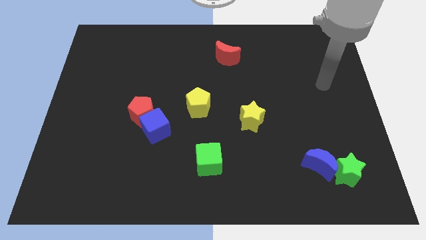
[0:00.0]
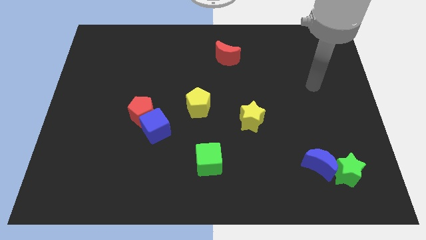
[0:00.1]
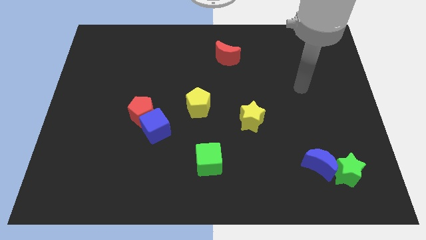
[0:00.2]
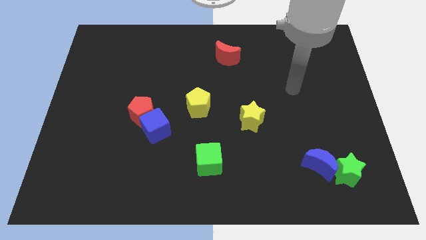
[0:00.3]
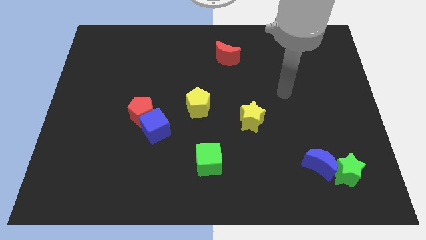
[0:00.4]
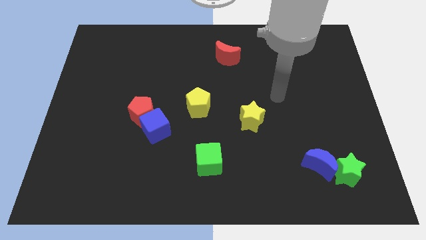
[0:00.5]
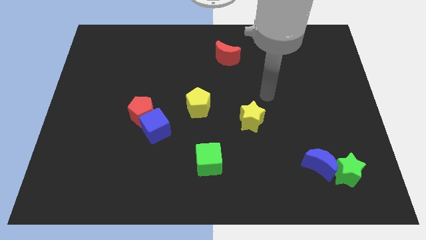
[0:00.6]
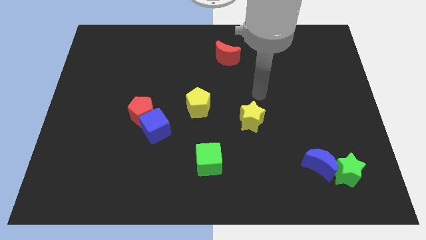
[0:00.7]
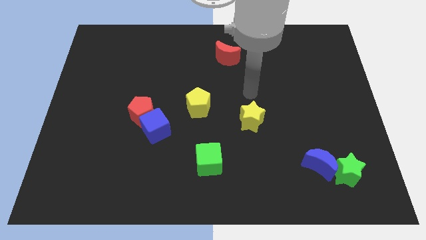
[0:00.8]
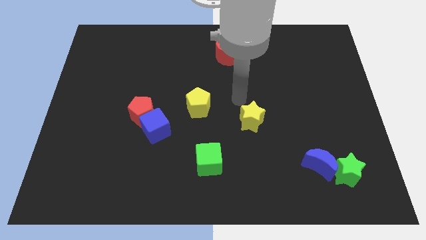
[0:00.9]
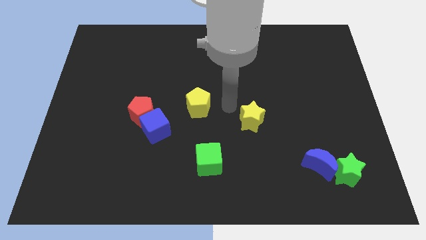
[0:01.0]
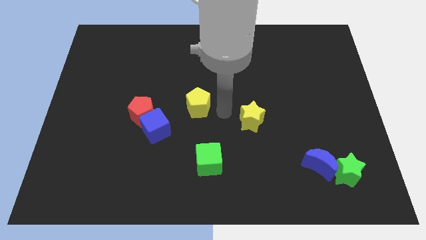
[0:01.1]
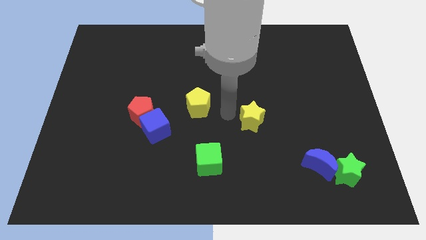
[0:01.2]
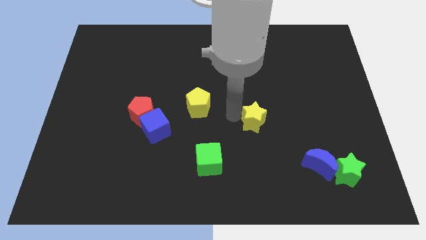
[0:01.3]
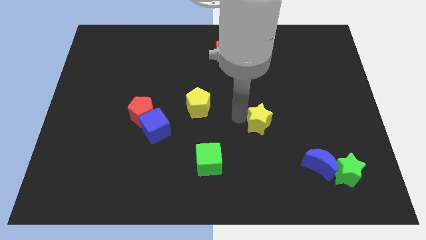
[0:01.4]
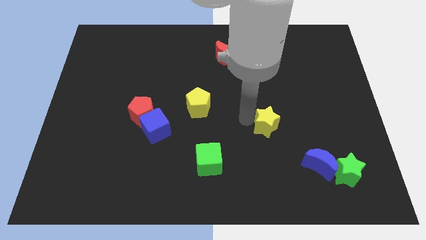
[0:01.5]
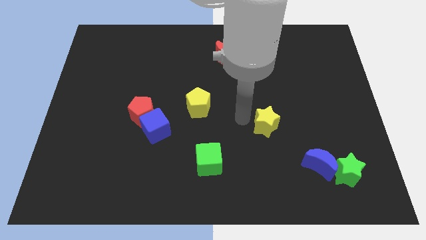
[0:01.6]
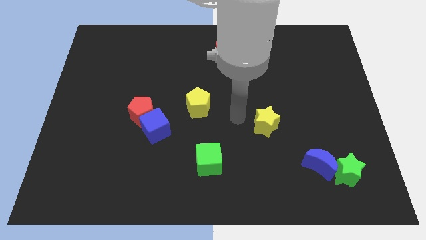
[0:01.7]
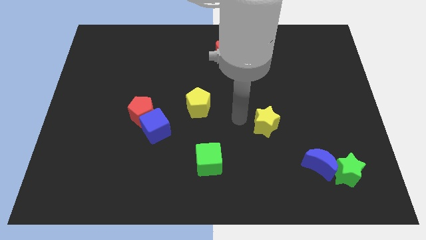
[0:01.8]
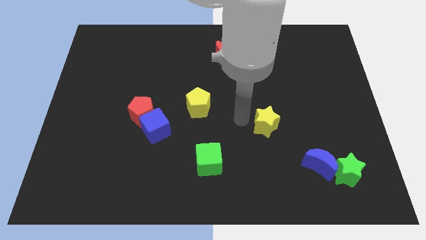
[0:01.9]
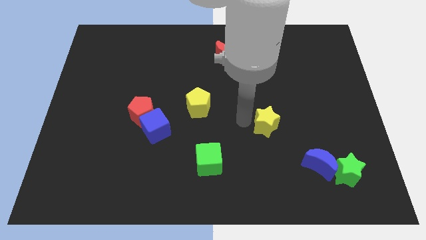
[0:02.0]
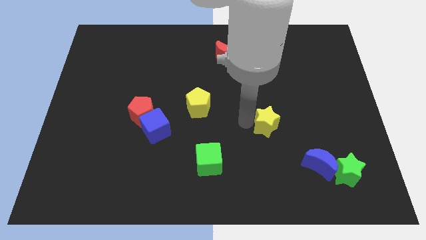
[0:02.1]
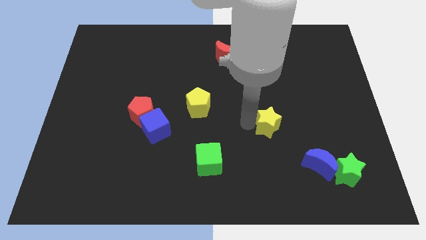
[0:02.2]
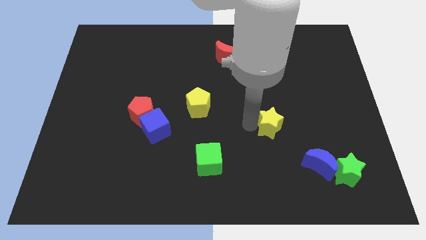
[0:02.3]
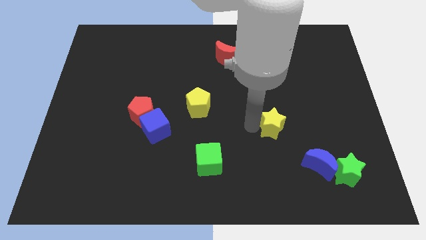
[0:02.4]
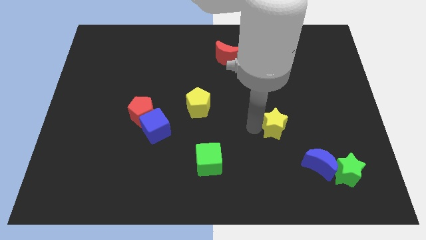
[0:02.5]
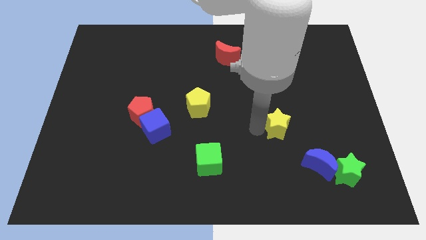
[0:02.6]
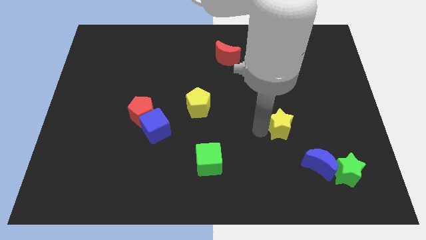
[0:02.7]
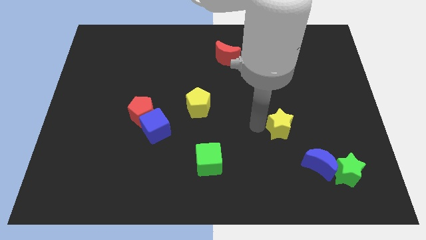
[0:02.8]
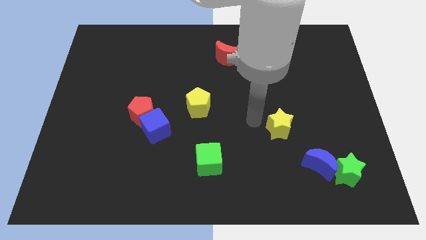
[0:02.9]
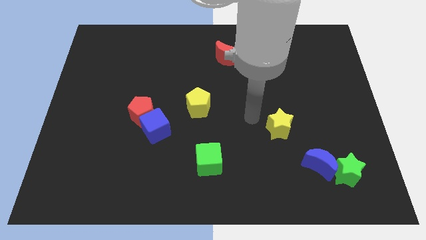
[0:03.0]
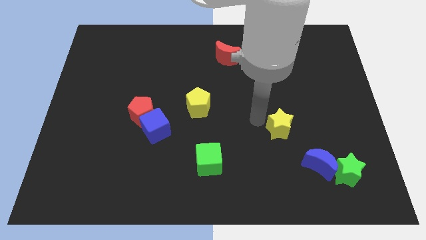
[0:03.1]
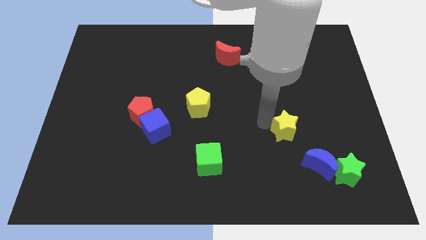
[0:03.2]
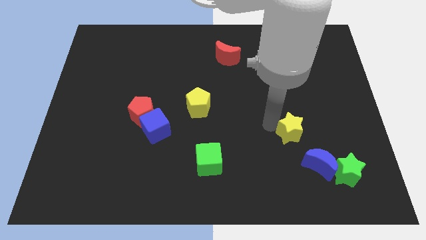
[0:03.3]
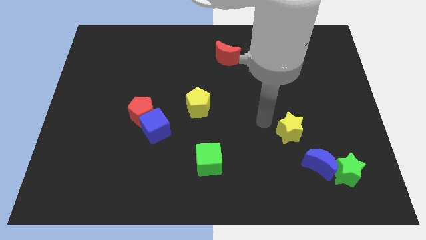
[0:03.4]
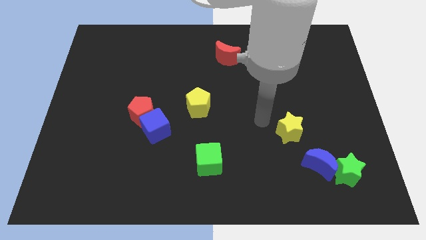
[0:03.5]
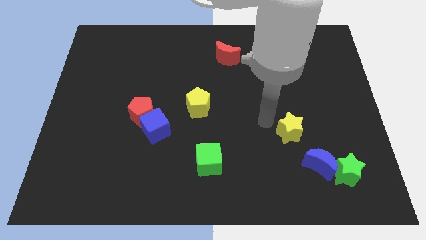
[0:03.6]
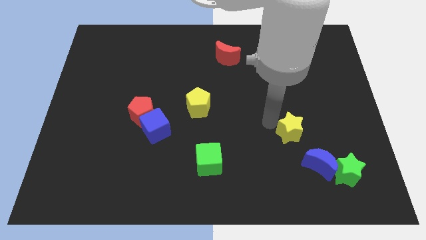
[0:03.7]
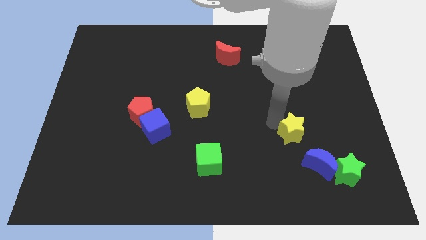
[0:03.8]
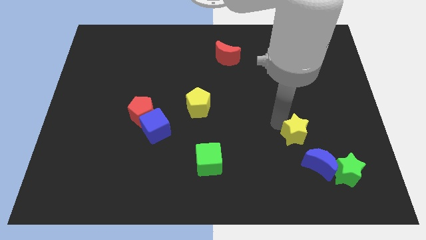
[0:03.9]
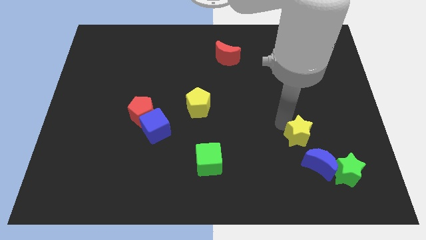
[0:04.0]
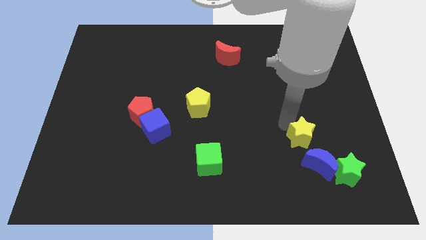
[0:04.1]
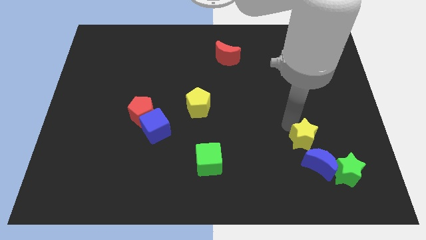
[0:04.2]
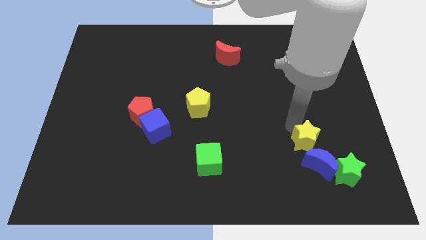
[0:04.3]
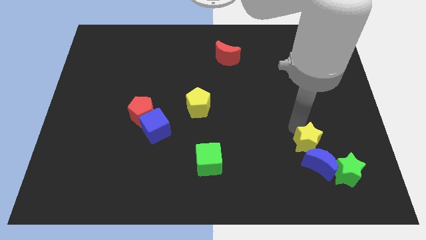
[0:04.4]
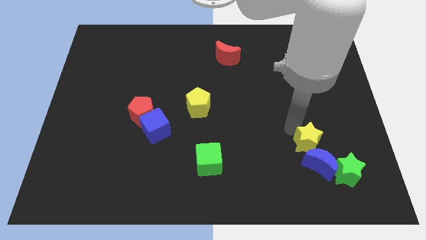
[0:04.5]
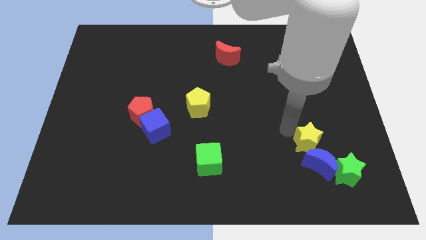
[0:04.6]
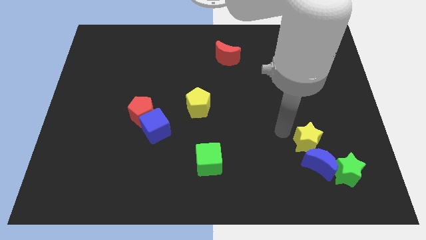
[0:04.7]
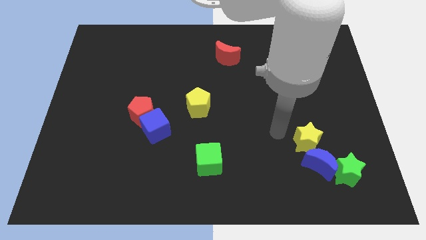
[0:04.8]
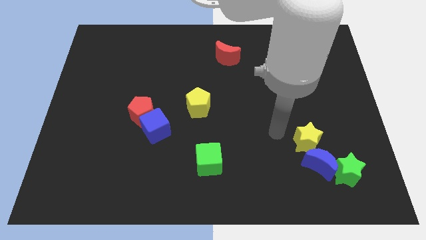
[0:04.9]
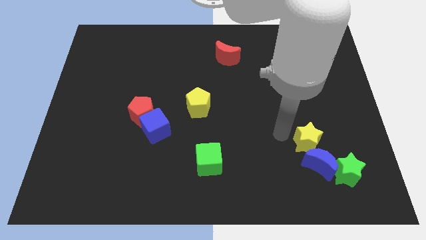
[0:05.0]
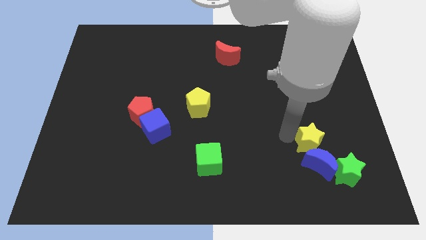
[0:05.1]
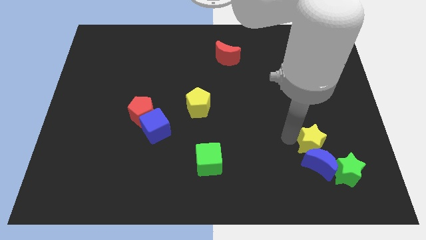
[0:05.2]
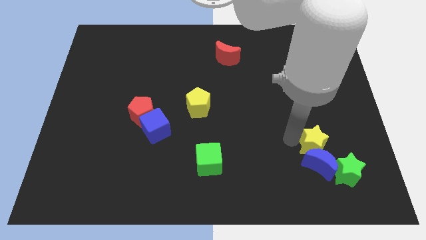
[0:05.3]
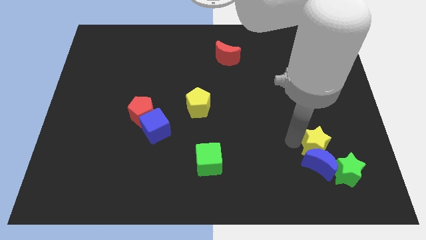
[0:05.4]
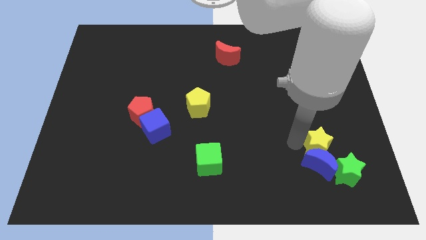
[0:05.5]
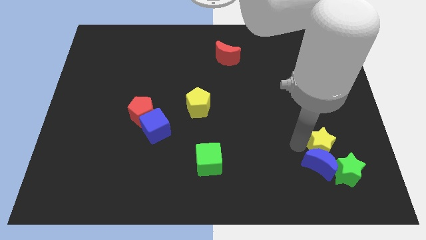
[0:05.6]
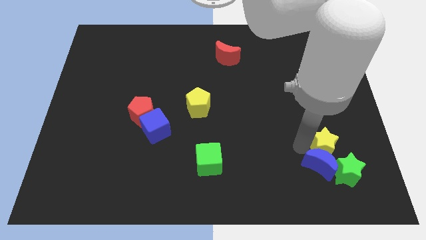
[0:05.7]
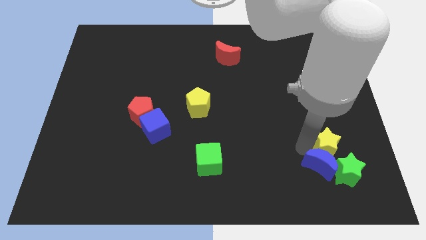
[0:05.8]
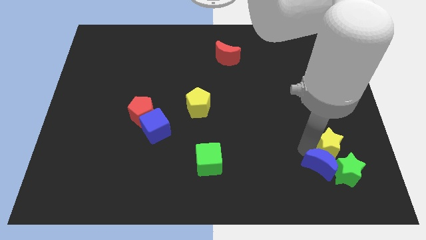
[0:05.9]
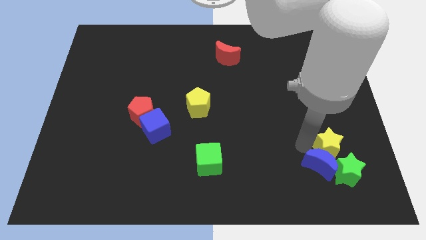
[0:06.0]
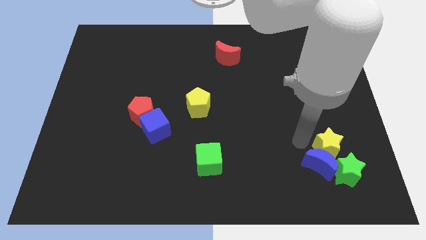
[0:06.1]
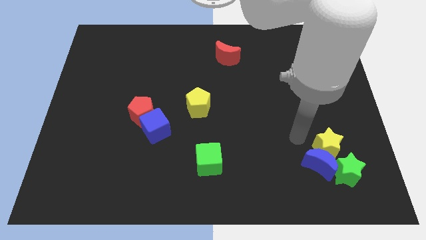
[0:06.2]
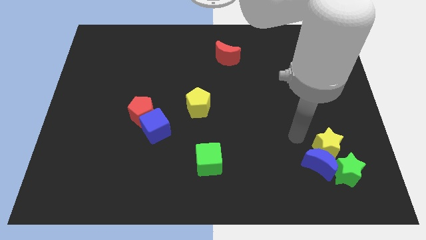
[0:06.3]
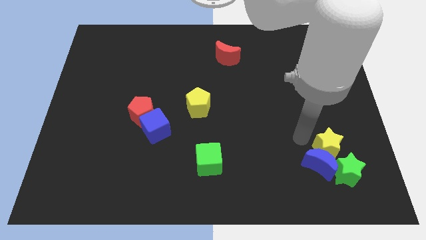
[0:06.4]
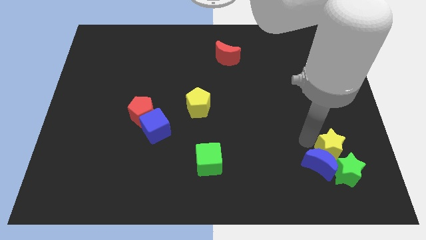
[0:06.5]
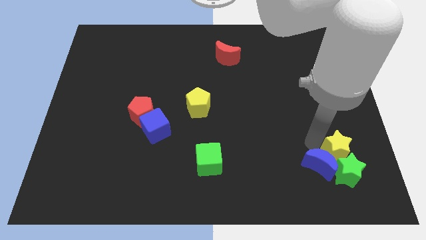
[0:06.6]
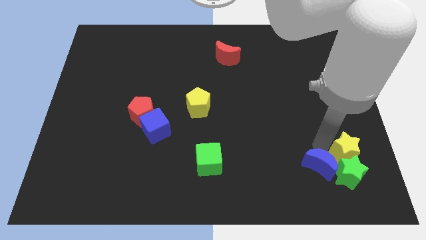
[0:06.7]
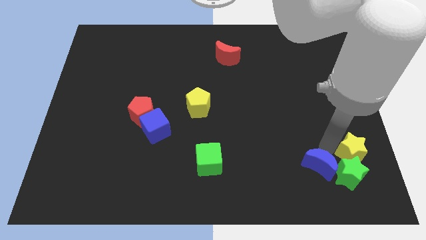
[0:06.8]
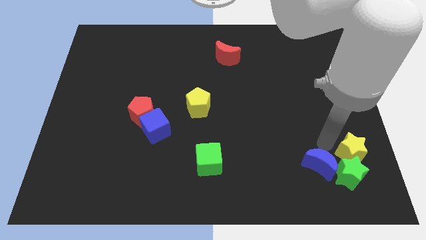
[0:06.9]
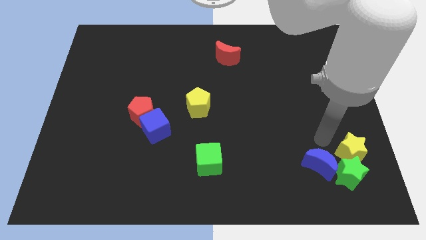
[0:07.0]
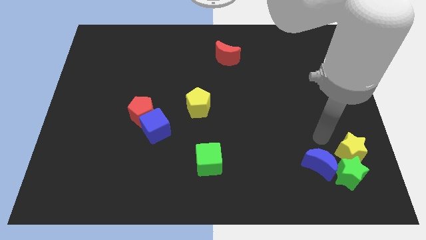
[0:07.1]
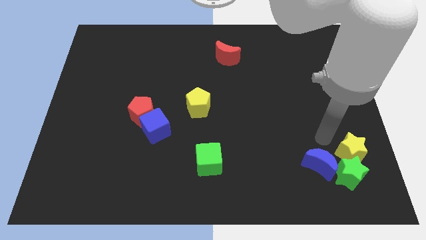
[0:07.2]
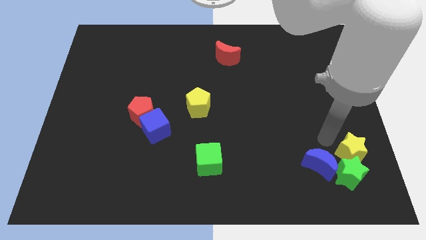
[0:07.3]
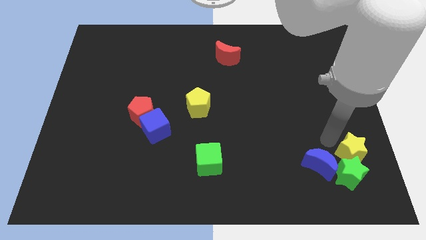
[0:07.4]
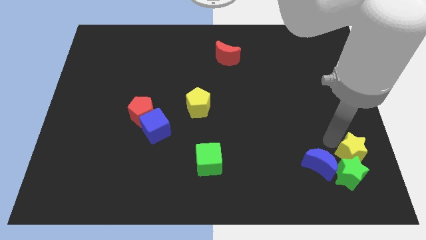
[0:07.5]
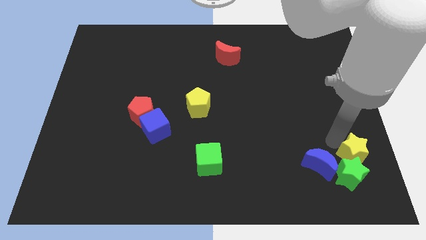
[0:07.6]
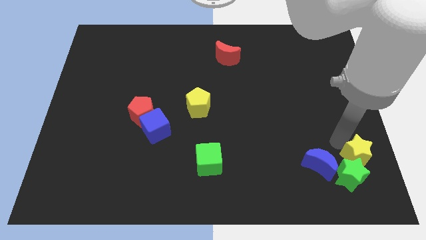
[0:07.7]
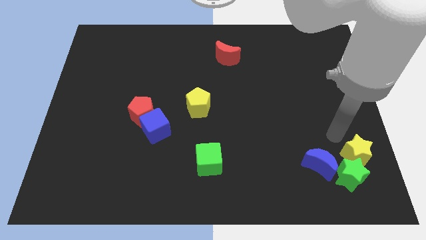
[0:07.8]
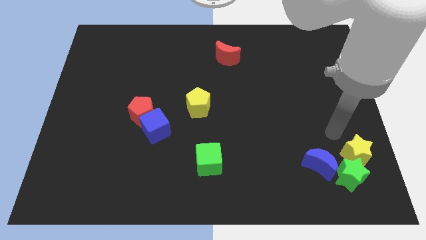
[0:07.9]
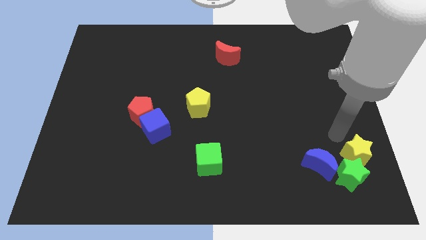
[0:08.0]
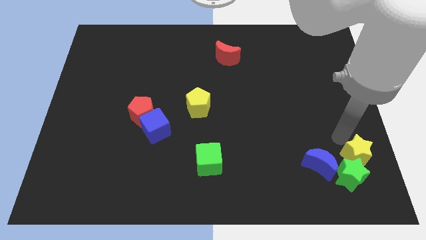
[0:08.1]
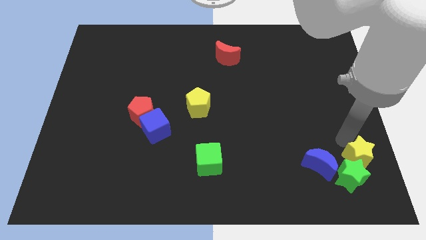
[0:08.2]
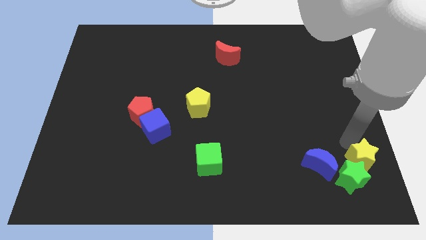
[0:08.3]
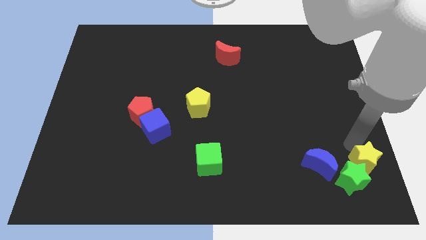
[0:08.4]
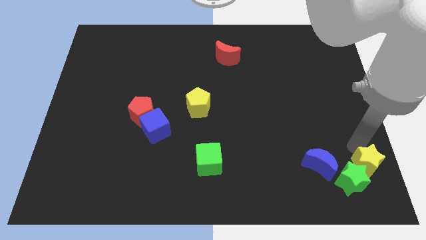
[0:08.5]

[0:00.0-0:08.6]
push the yellow star to the bottom right corner
